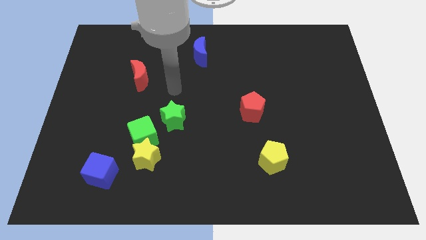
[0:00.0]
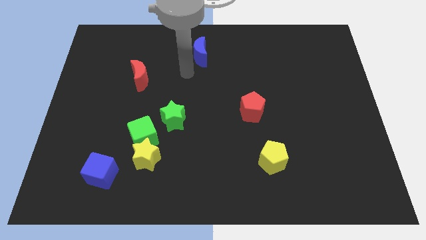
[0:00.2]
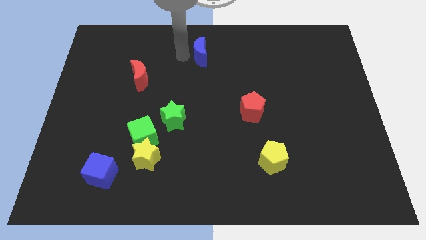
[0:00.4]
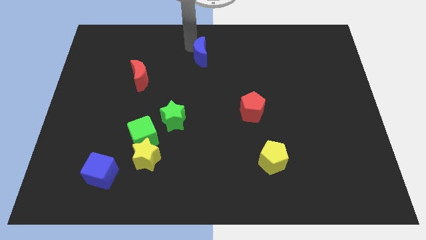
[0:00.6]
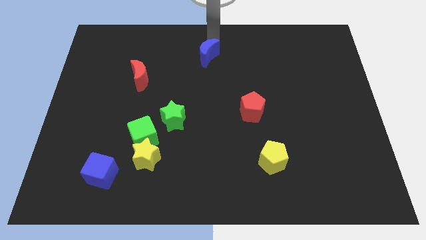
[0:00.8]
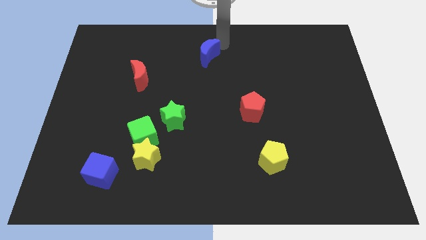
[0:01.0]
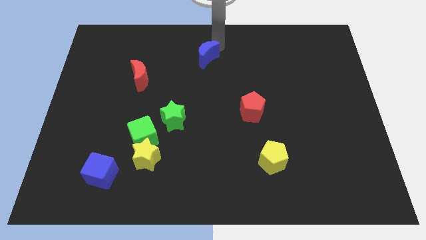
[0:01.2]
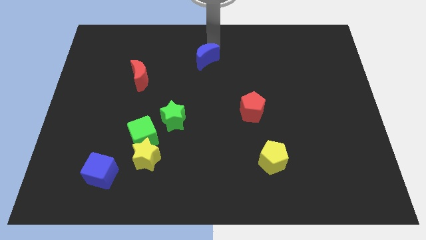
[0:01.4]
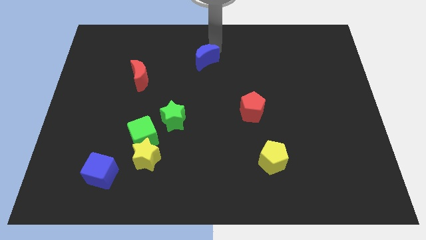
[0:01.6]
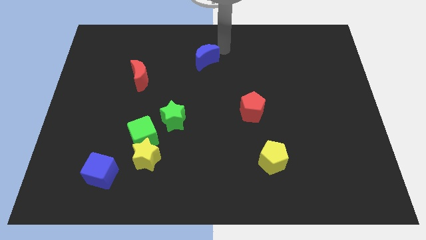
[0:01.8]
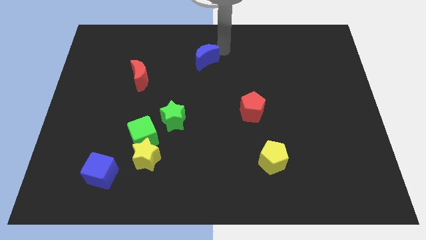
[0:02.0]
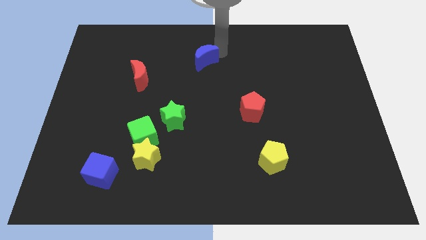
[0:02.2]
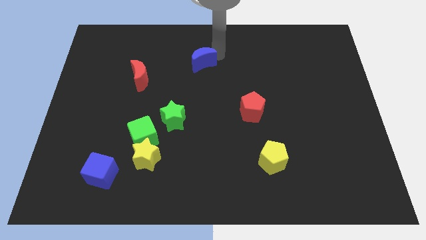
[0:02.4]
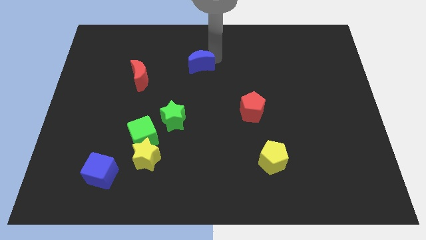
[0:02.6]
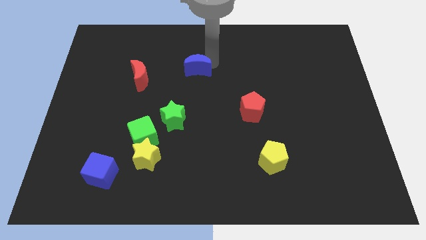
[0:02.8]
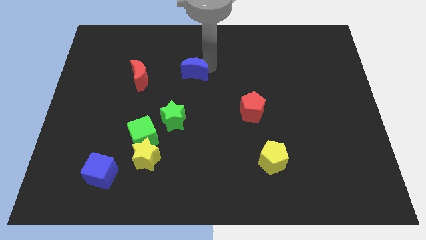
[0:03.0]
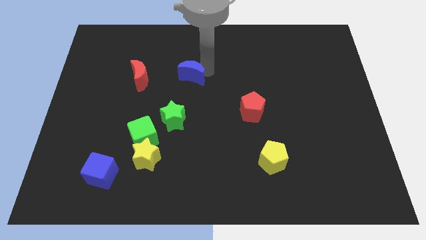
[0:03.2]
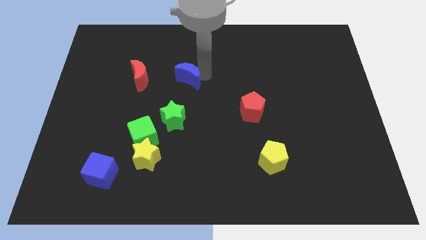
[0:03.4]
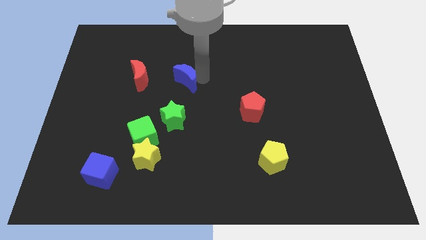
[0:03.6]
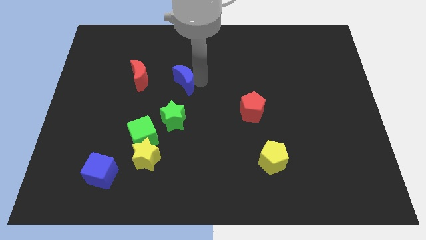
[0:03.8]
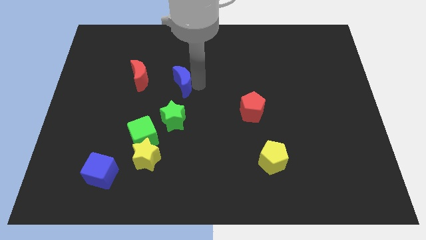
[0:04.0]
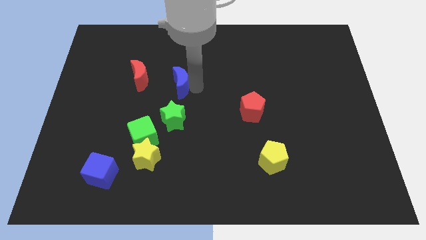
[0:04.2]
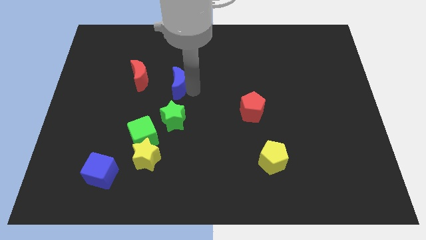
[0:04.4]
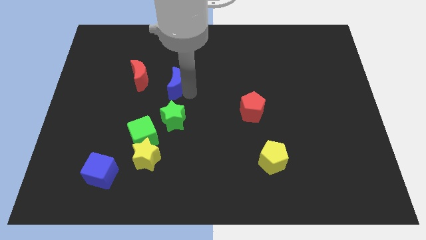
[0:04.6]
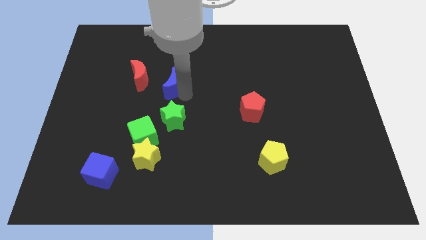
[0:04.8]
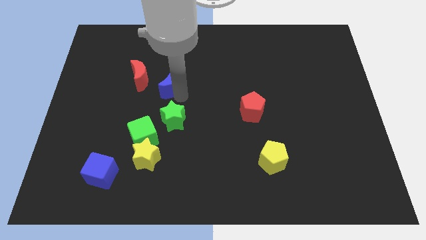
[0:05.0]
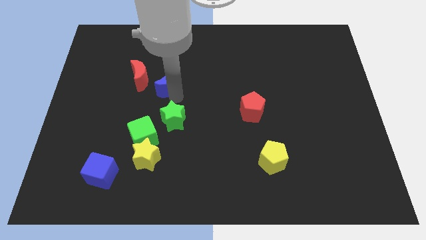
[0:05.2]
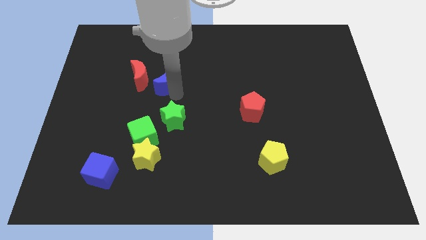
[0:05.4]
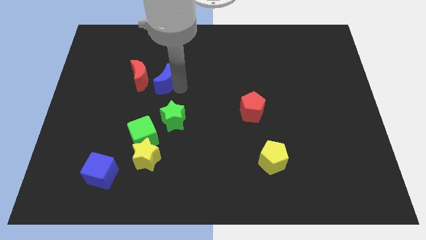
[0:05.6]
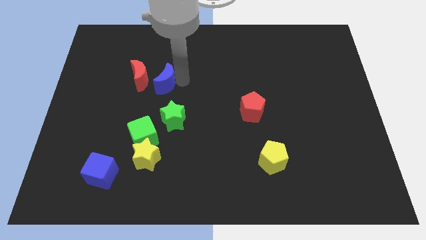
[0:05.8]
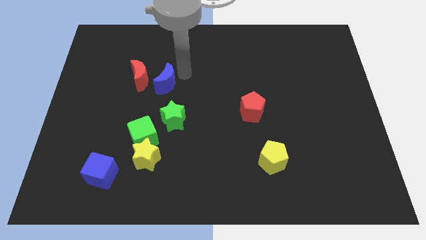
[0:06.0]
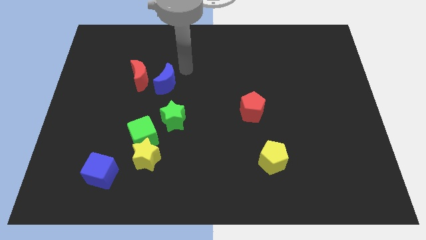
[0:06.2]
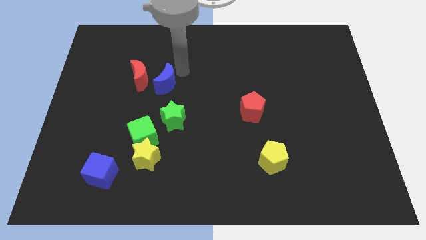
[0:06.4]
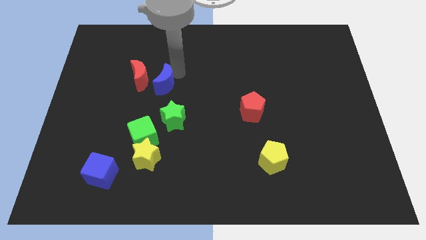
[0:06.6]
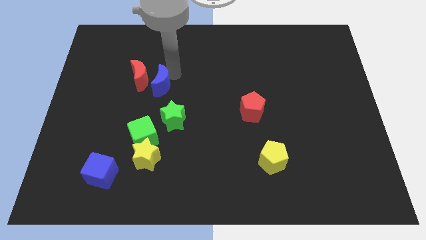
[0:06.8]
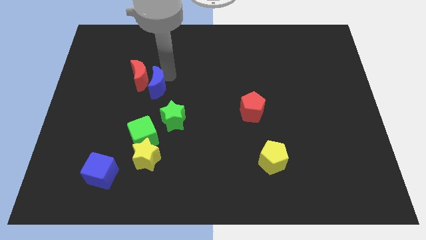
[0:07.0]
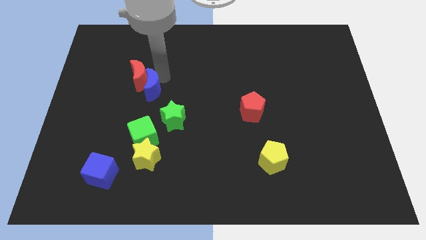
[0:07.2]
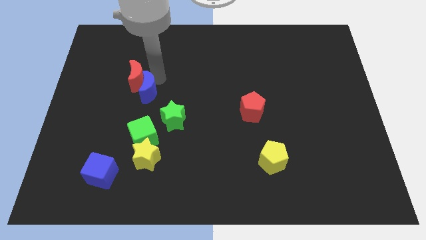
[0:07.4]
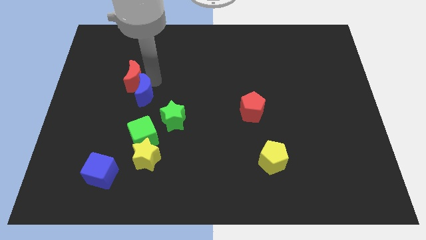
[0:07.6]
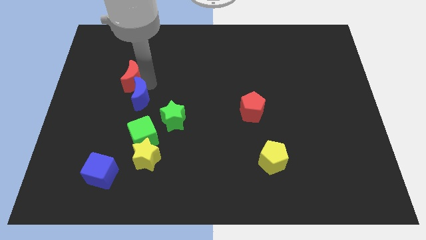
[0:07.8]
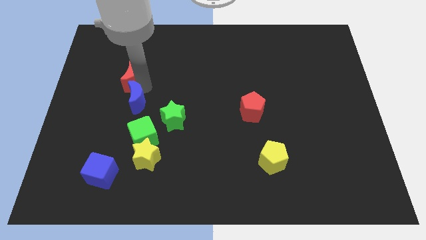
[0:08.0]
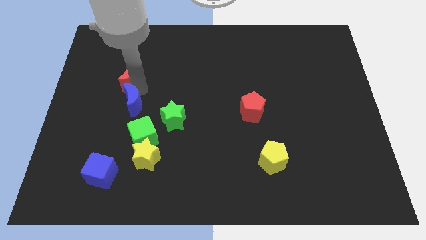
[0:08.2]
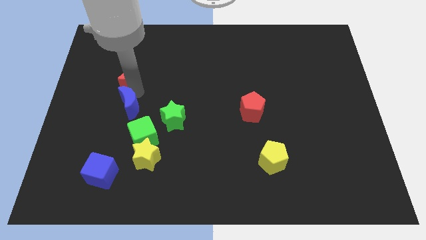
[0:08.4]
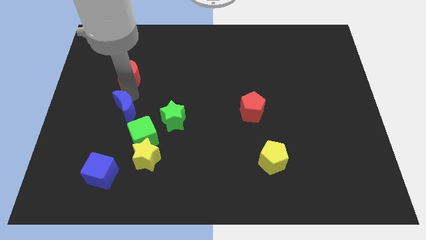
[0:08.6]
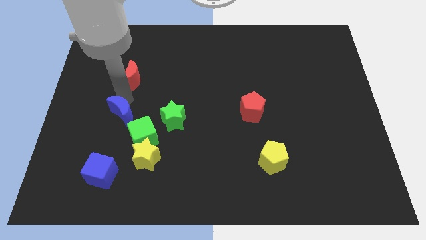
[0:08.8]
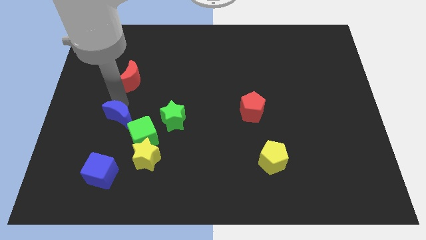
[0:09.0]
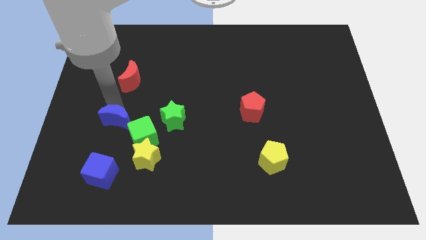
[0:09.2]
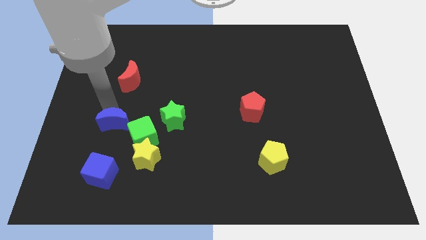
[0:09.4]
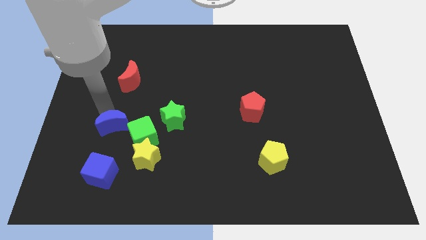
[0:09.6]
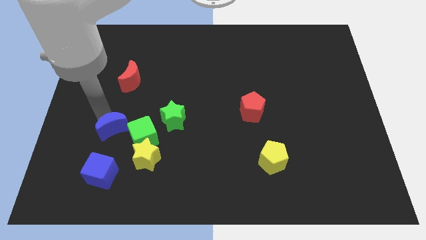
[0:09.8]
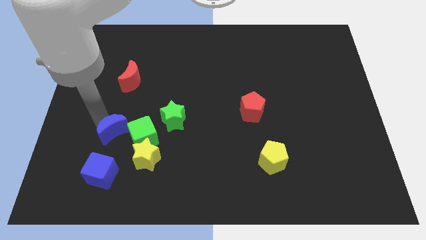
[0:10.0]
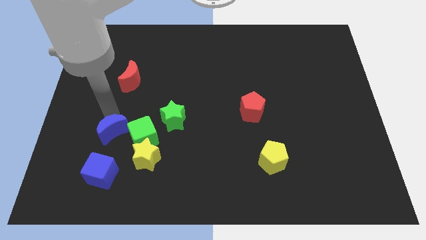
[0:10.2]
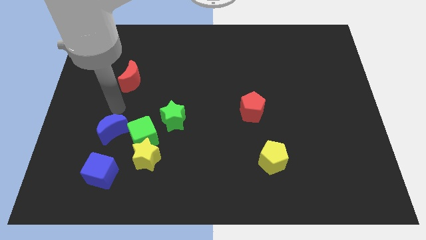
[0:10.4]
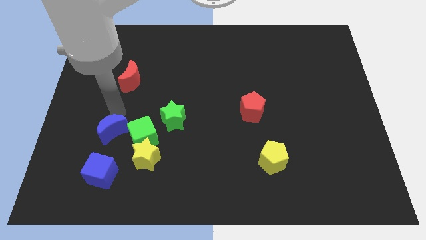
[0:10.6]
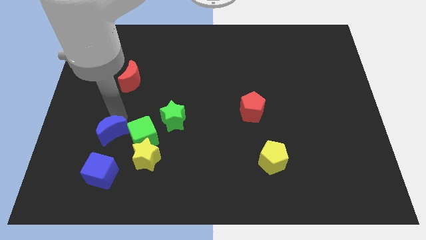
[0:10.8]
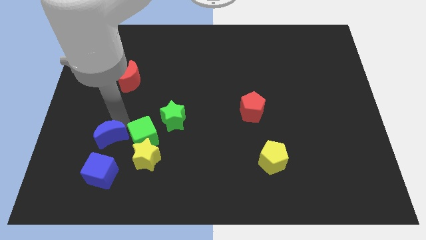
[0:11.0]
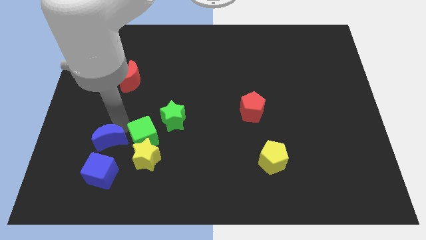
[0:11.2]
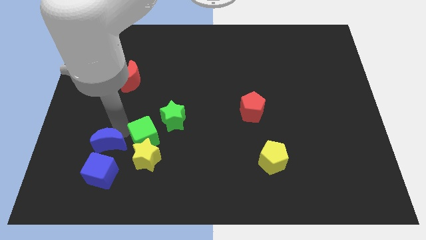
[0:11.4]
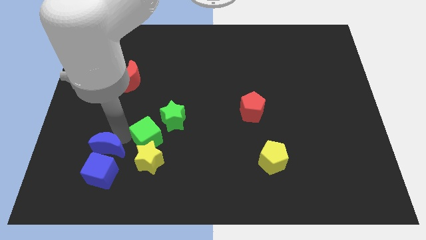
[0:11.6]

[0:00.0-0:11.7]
move the blue moon towards the blue cube

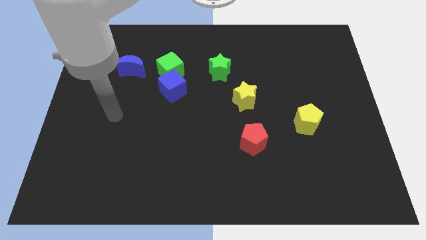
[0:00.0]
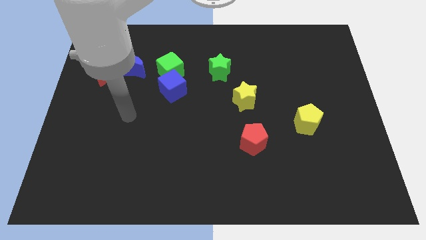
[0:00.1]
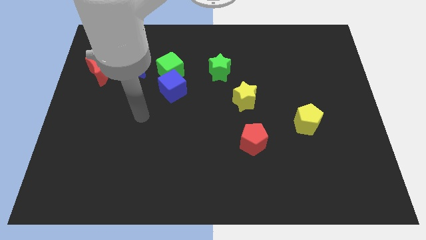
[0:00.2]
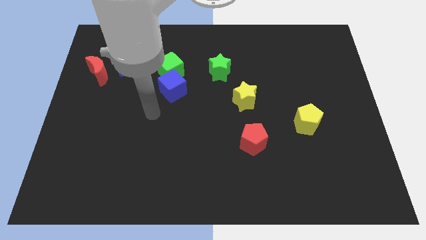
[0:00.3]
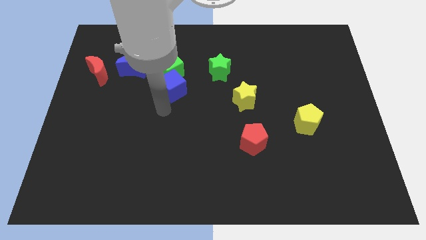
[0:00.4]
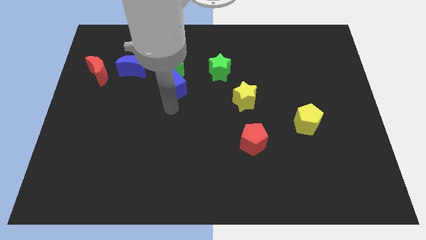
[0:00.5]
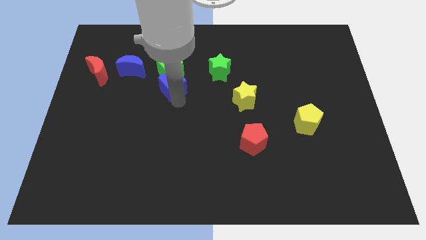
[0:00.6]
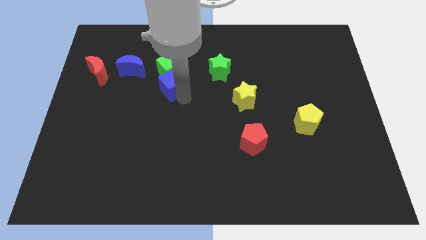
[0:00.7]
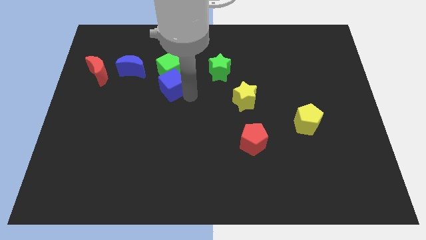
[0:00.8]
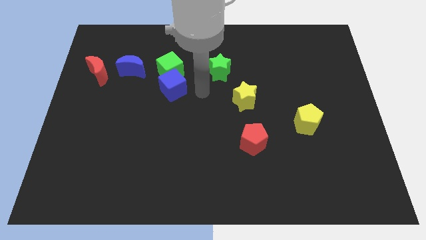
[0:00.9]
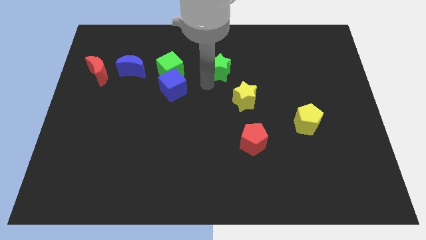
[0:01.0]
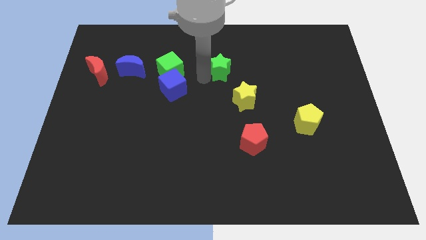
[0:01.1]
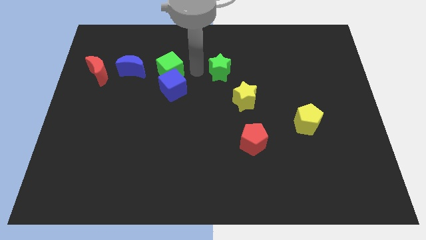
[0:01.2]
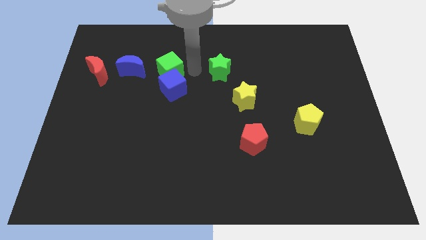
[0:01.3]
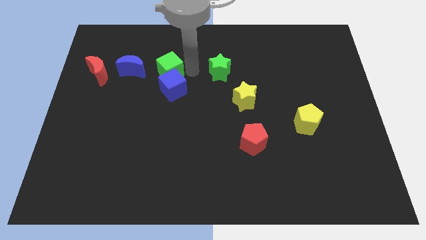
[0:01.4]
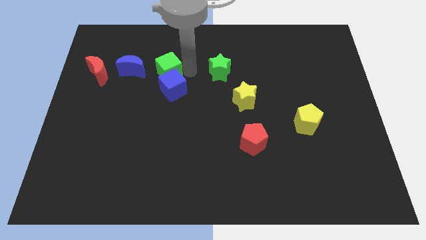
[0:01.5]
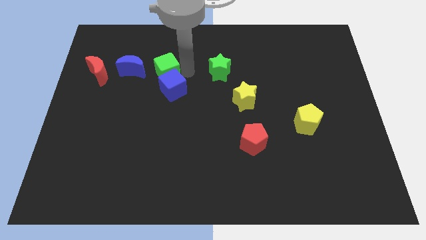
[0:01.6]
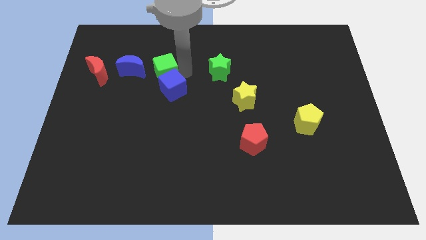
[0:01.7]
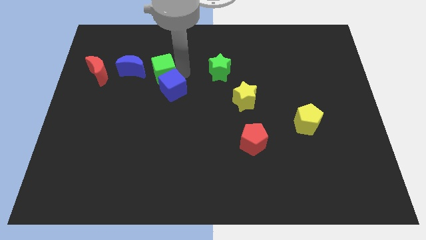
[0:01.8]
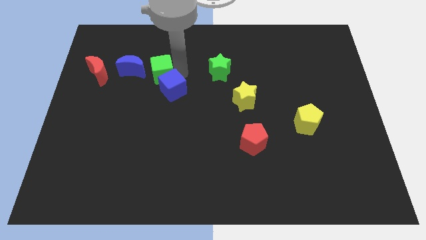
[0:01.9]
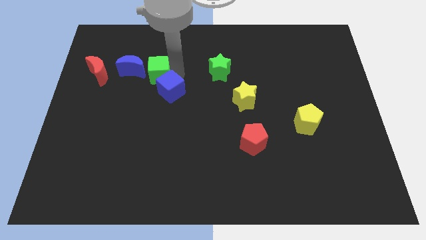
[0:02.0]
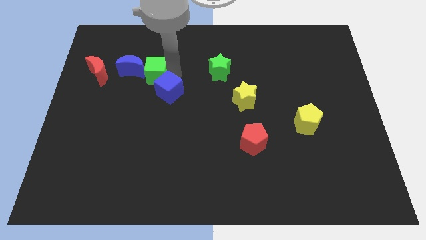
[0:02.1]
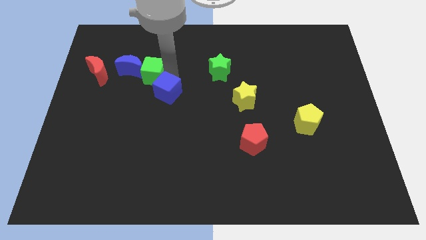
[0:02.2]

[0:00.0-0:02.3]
put the green cube to the blue moon
